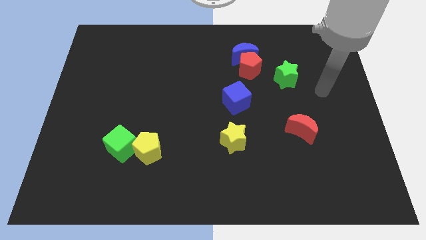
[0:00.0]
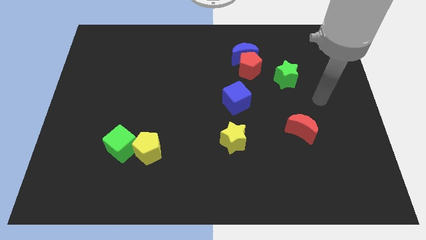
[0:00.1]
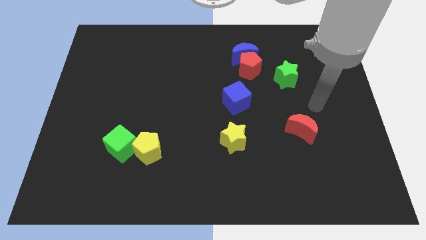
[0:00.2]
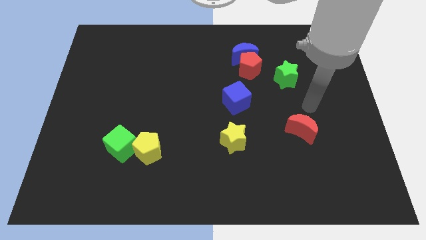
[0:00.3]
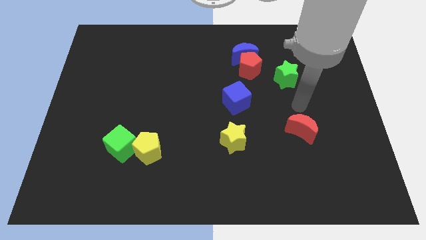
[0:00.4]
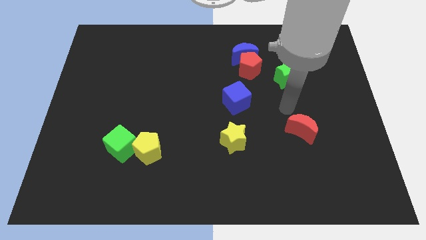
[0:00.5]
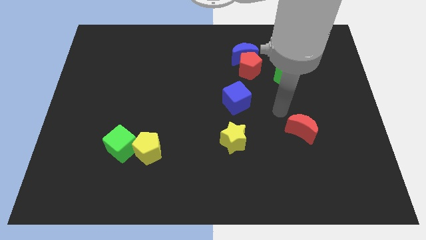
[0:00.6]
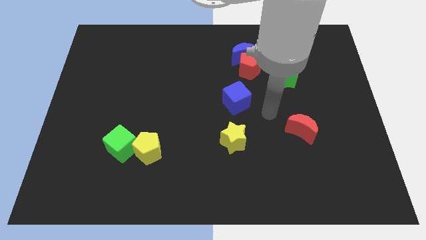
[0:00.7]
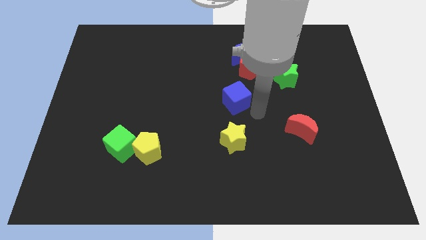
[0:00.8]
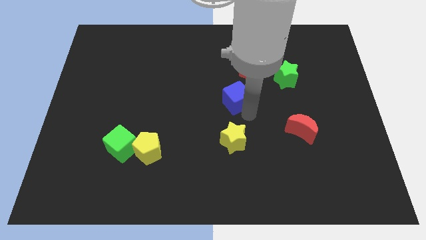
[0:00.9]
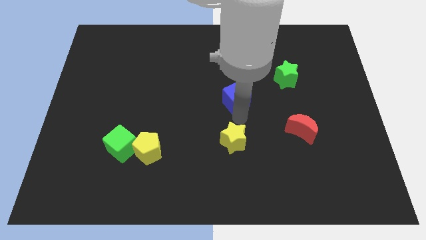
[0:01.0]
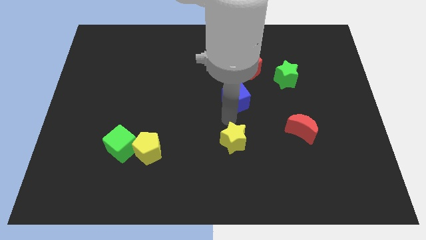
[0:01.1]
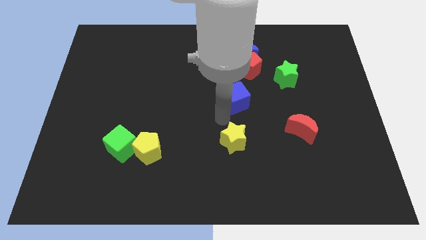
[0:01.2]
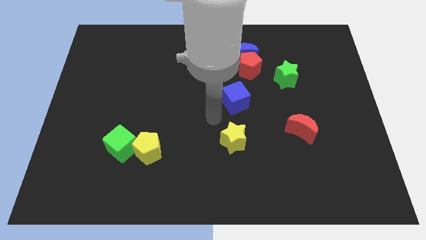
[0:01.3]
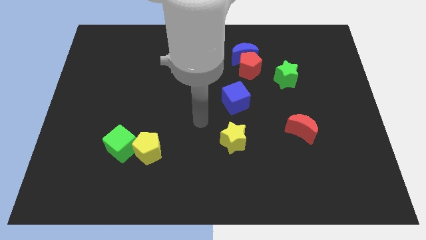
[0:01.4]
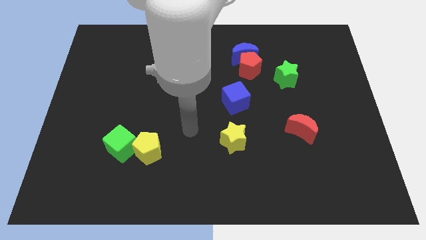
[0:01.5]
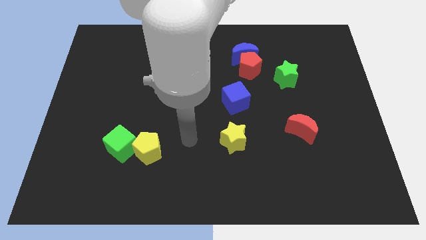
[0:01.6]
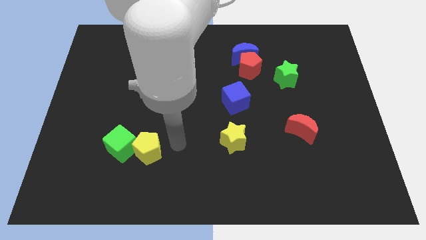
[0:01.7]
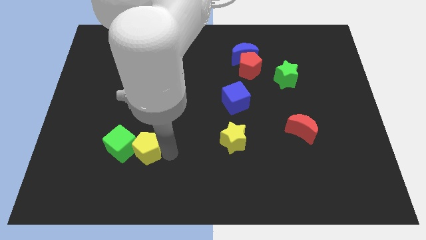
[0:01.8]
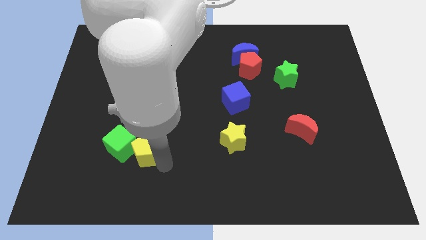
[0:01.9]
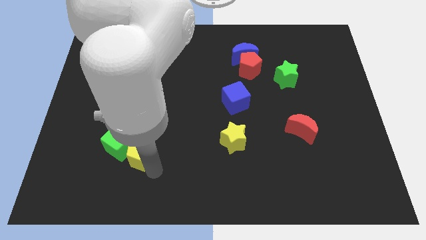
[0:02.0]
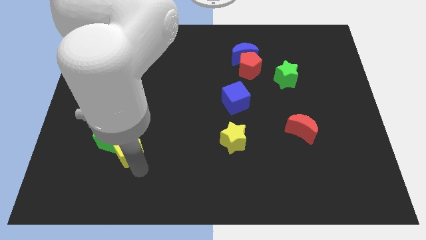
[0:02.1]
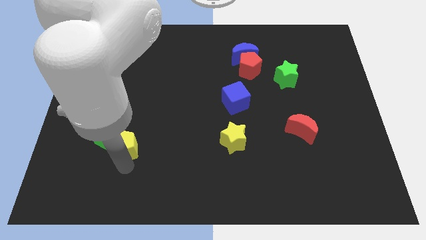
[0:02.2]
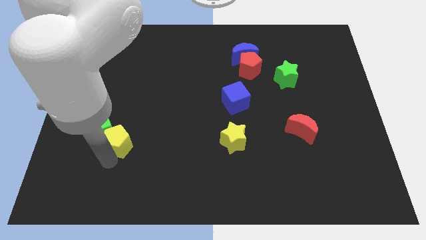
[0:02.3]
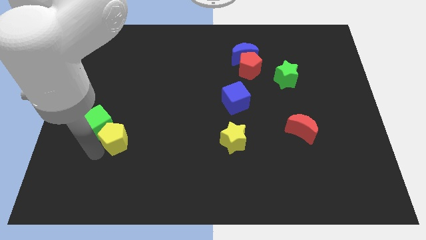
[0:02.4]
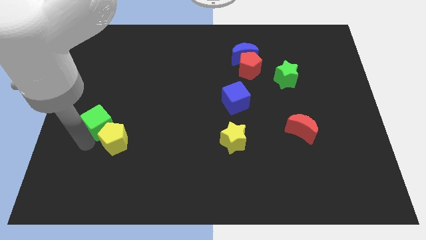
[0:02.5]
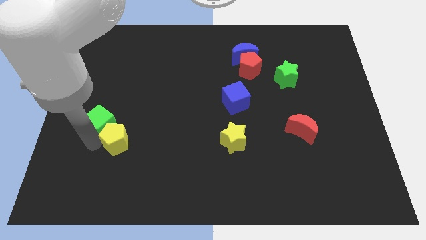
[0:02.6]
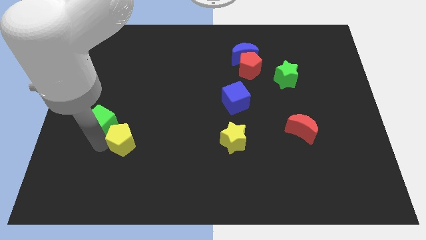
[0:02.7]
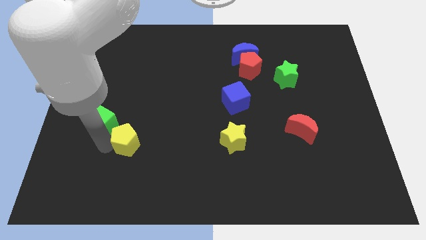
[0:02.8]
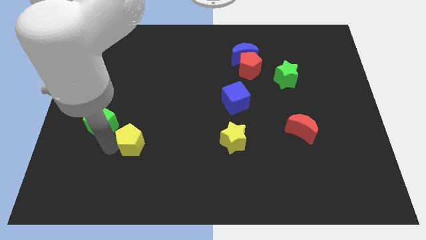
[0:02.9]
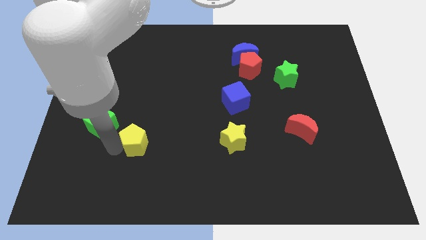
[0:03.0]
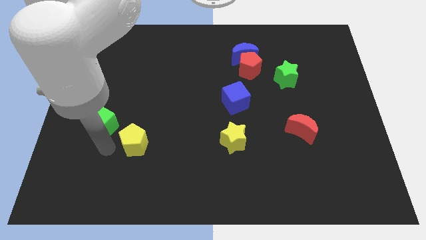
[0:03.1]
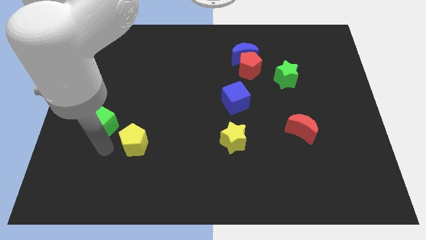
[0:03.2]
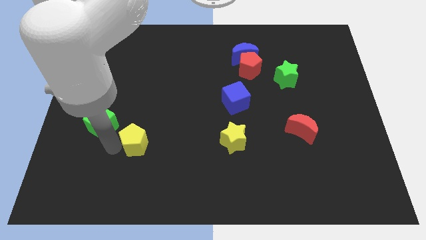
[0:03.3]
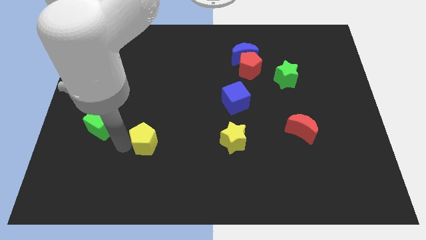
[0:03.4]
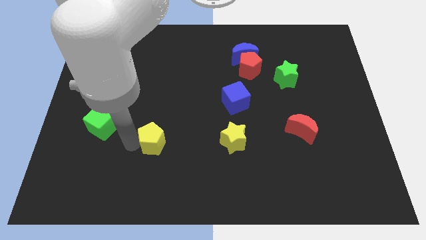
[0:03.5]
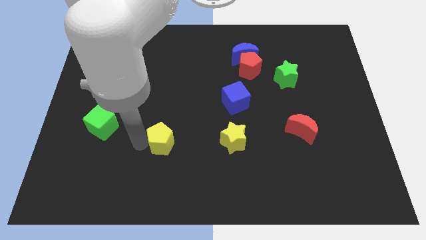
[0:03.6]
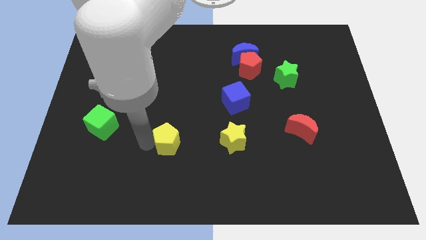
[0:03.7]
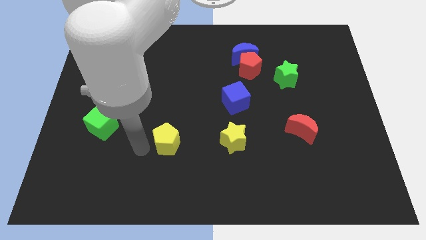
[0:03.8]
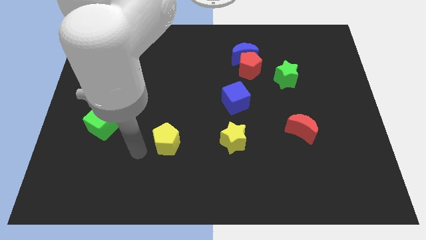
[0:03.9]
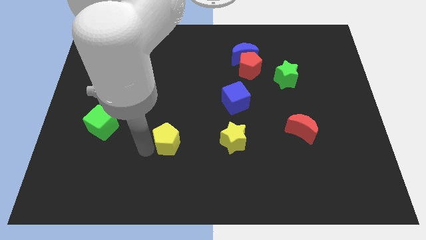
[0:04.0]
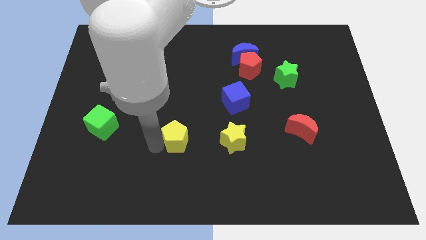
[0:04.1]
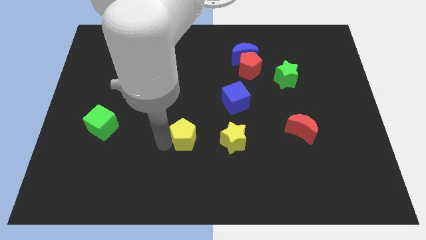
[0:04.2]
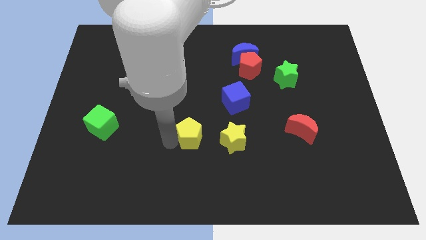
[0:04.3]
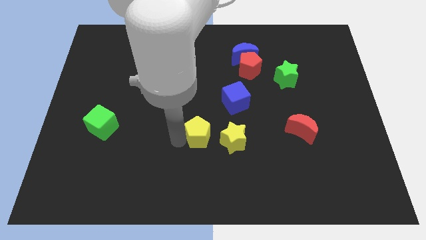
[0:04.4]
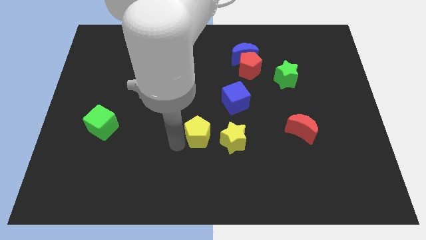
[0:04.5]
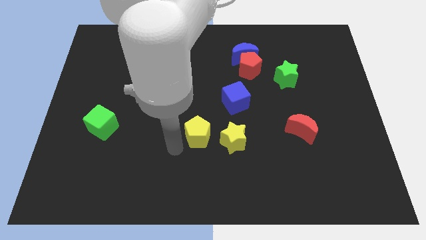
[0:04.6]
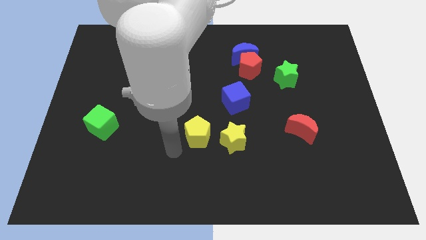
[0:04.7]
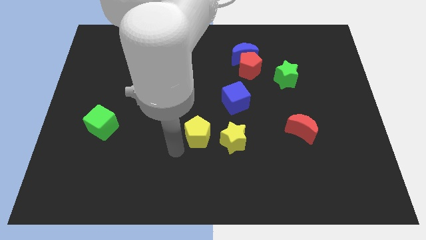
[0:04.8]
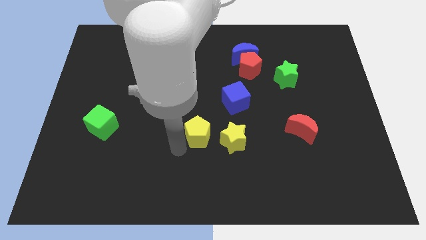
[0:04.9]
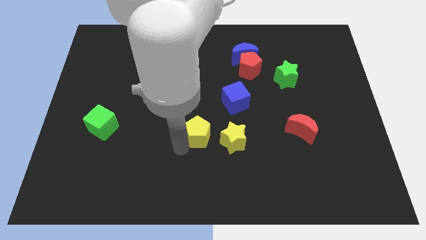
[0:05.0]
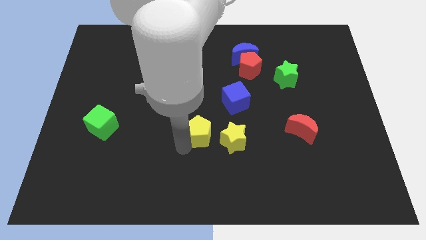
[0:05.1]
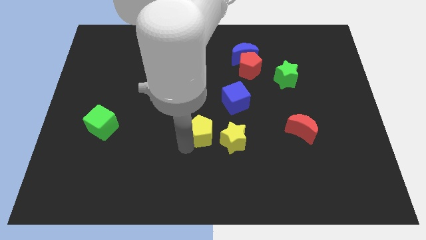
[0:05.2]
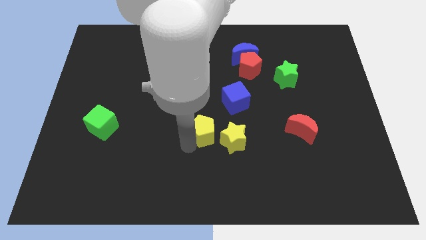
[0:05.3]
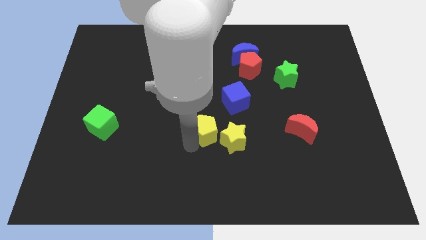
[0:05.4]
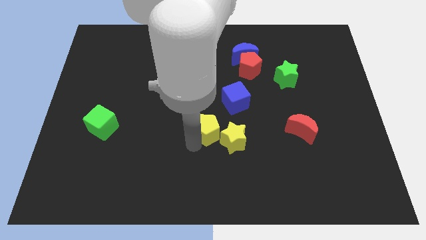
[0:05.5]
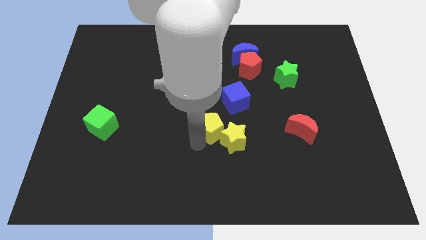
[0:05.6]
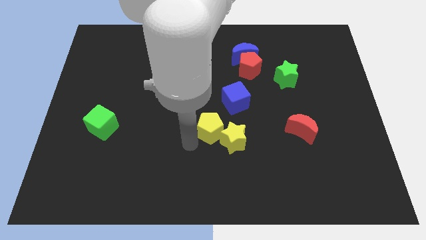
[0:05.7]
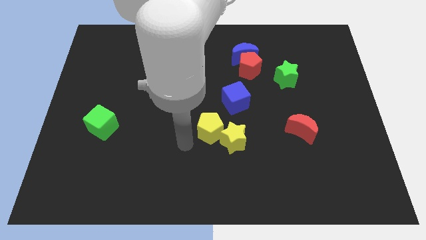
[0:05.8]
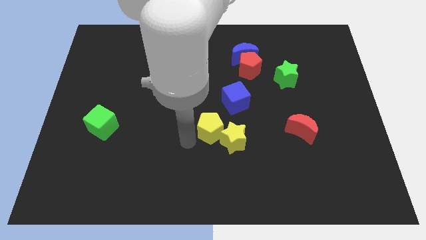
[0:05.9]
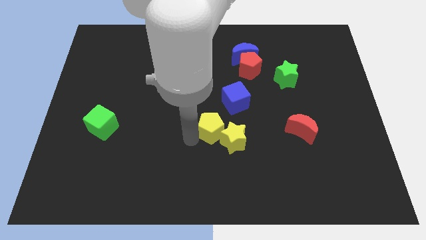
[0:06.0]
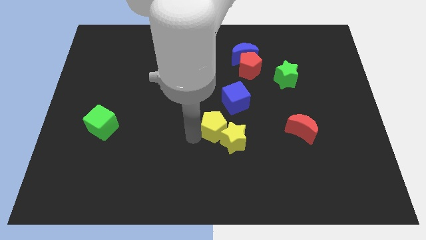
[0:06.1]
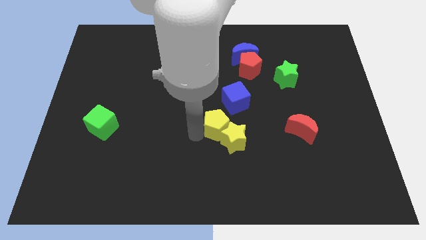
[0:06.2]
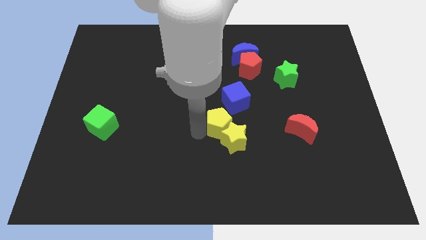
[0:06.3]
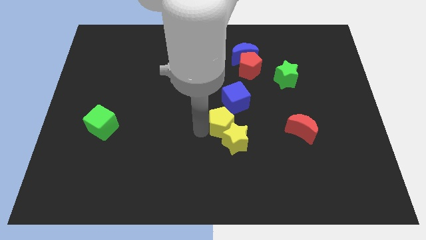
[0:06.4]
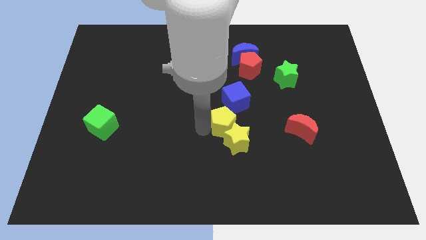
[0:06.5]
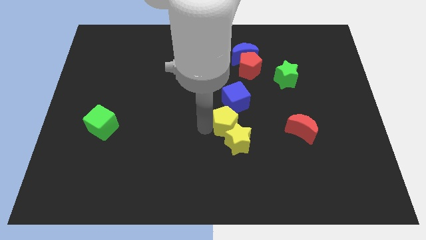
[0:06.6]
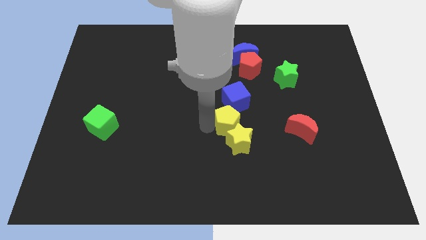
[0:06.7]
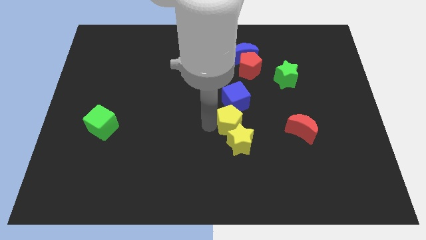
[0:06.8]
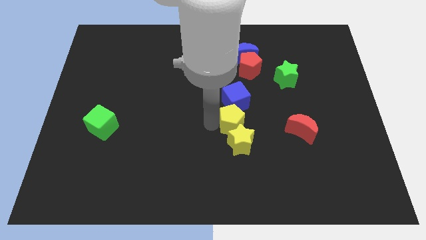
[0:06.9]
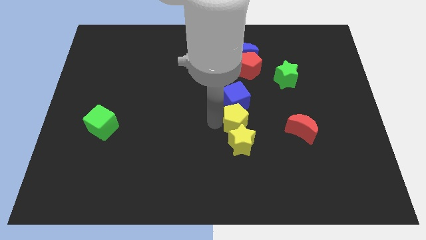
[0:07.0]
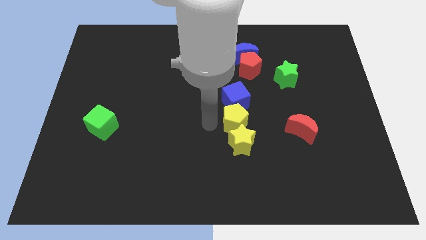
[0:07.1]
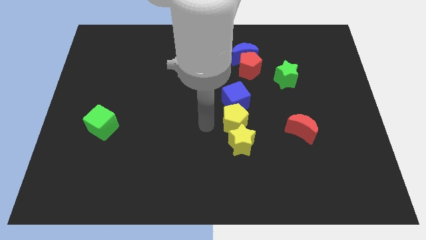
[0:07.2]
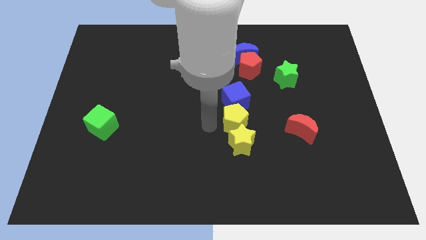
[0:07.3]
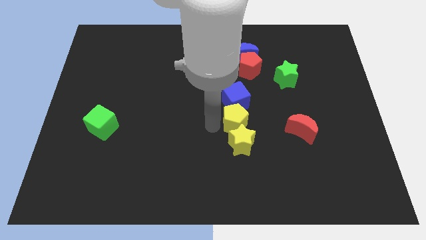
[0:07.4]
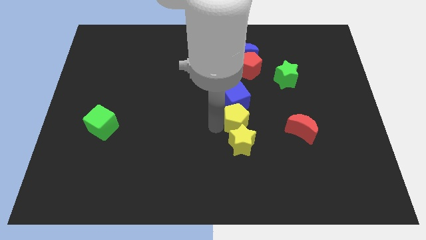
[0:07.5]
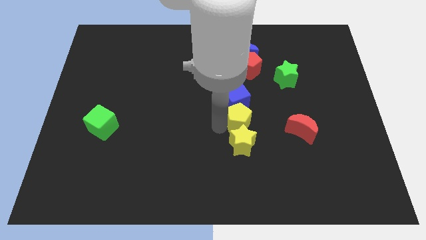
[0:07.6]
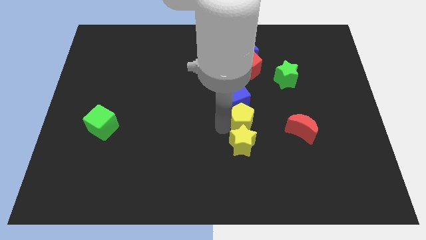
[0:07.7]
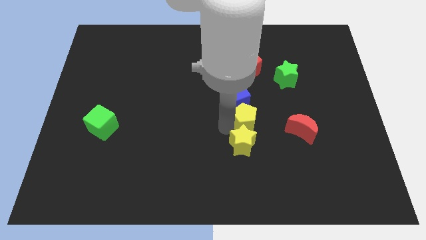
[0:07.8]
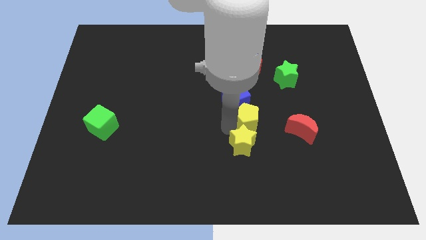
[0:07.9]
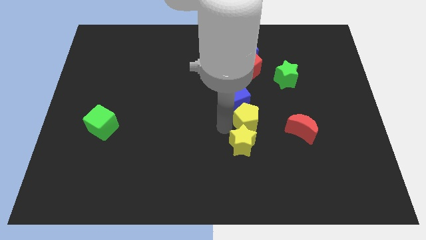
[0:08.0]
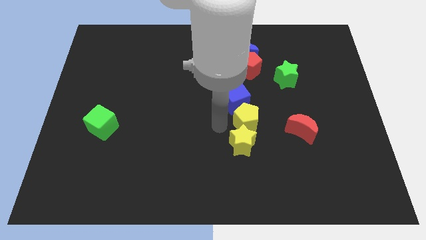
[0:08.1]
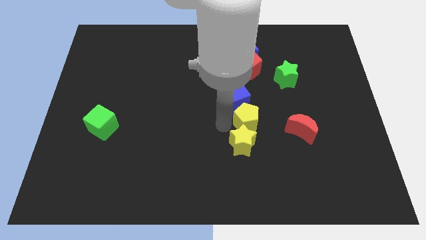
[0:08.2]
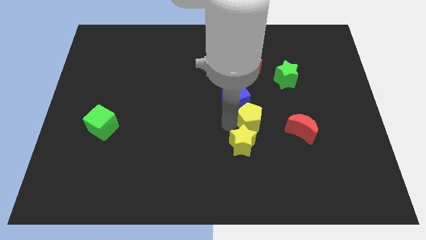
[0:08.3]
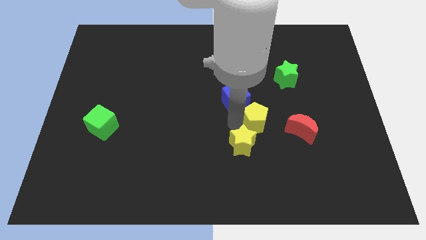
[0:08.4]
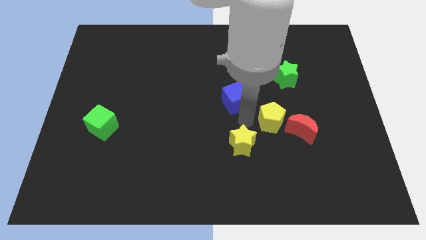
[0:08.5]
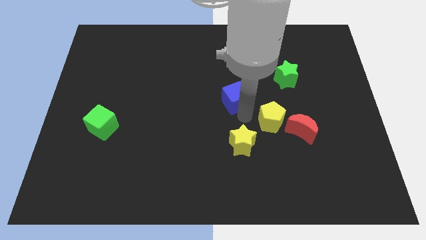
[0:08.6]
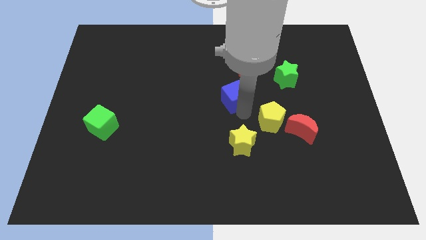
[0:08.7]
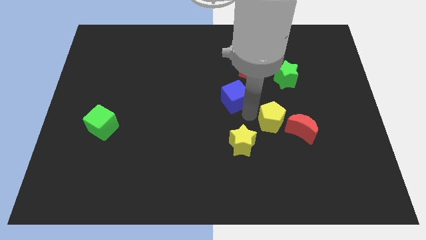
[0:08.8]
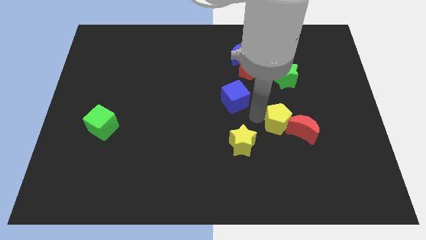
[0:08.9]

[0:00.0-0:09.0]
move the yellow pentagon to the red moon
